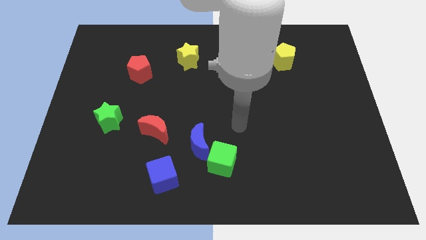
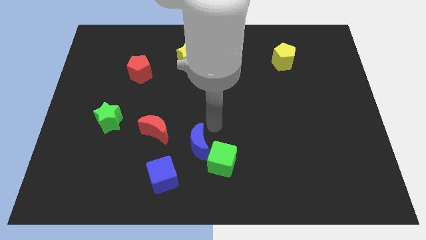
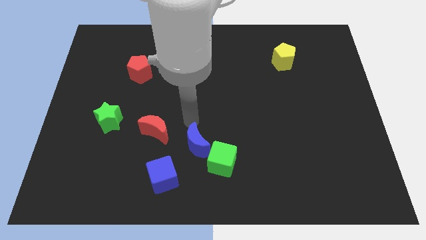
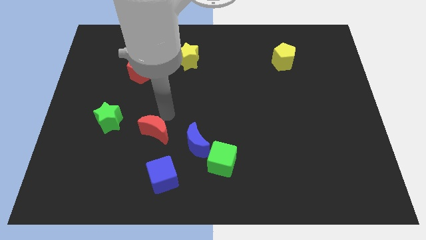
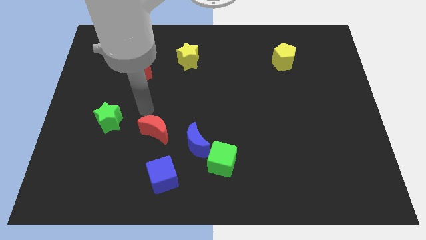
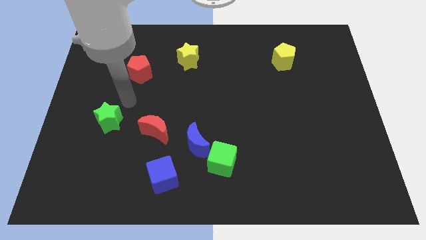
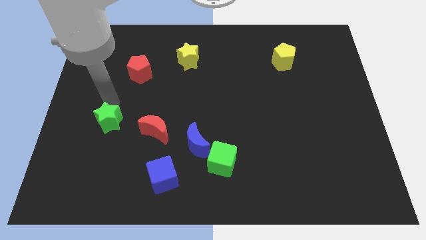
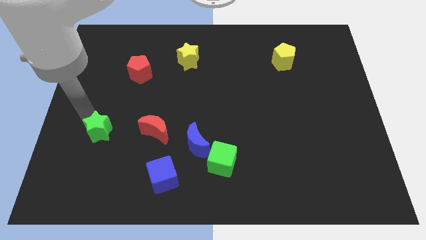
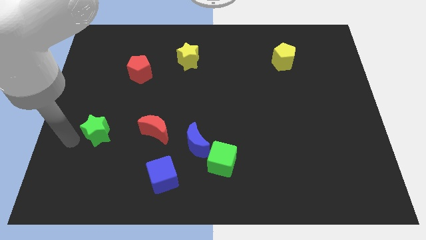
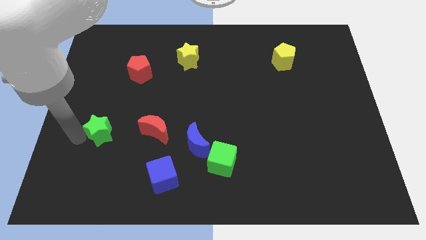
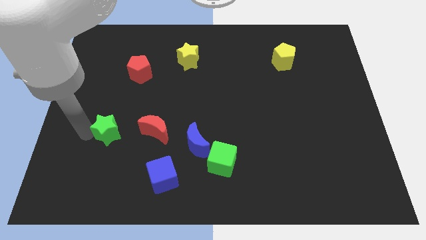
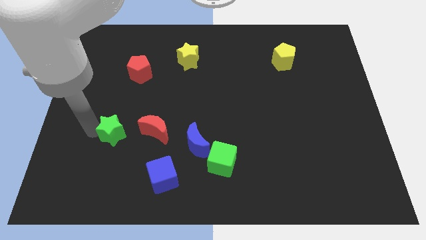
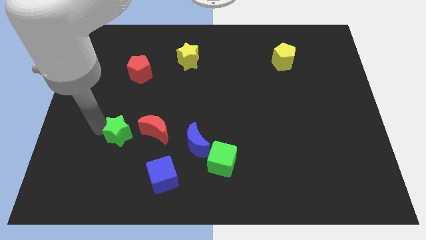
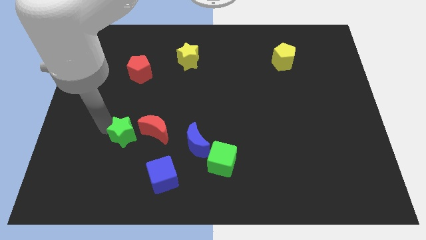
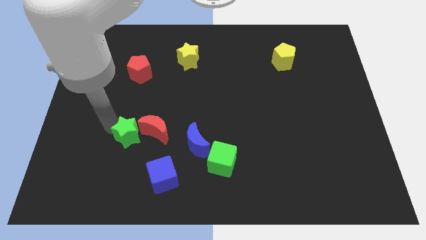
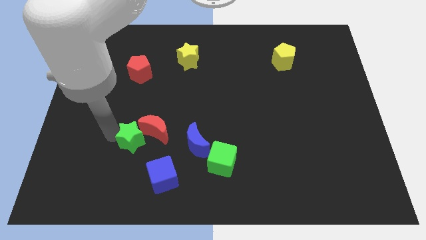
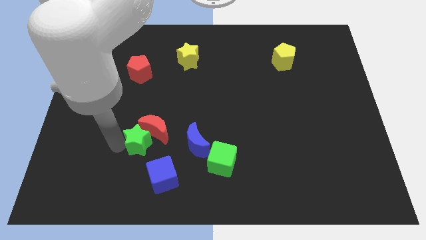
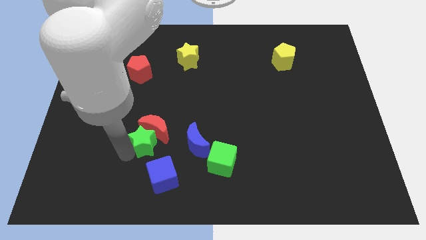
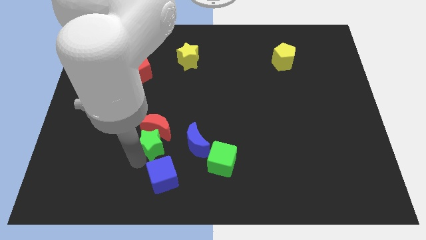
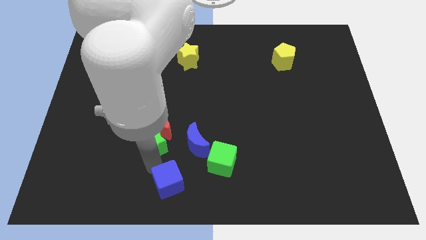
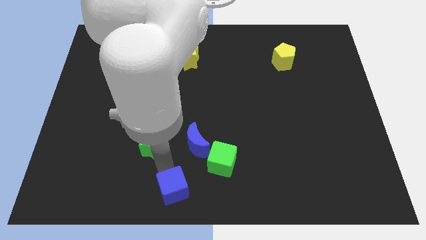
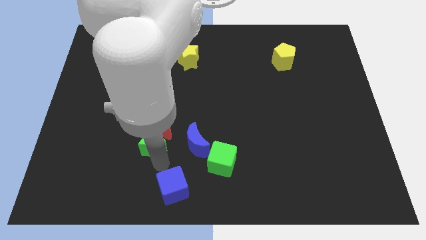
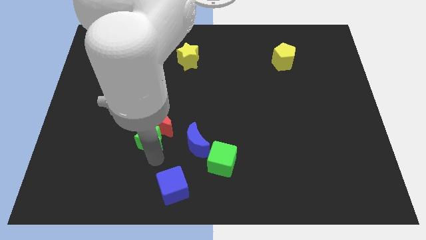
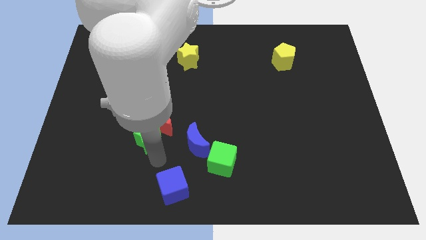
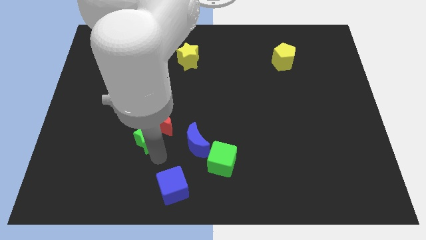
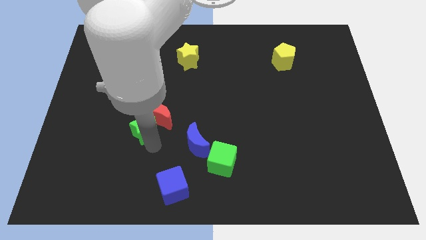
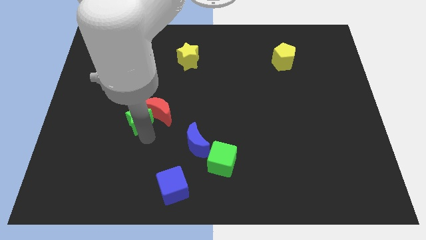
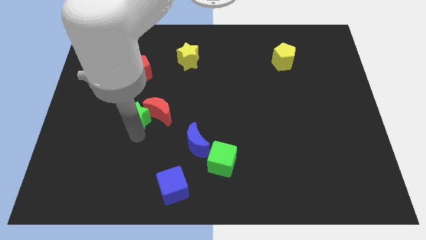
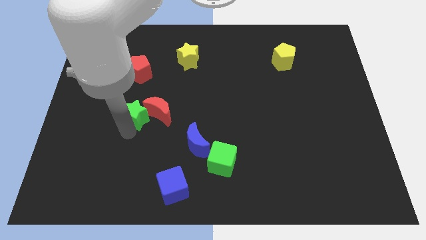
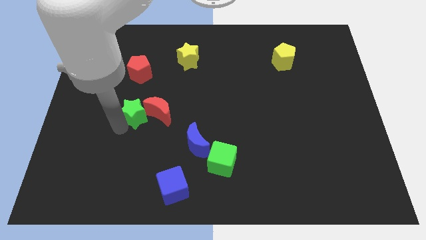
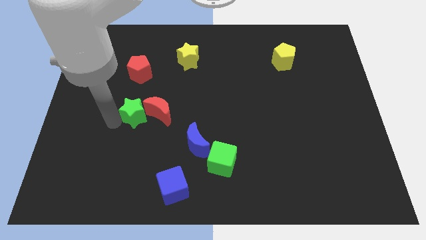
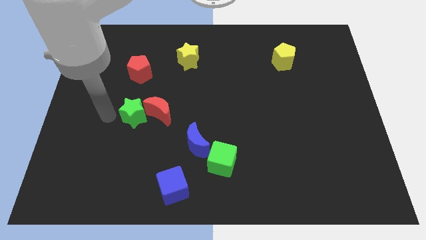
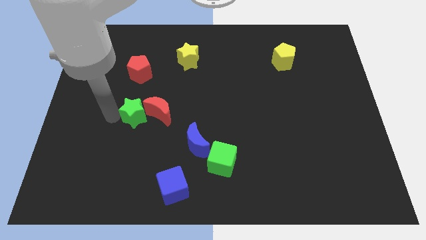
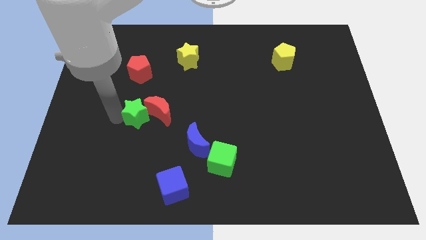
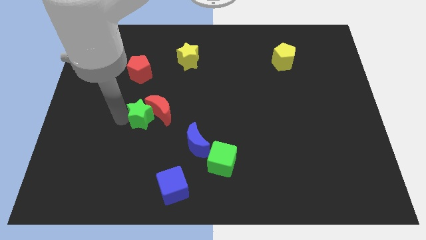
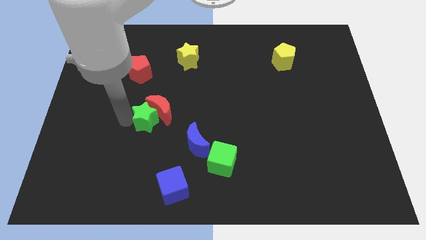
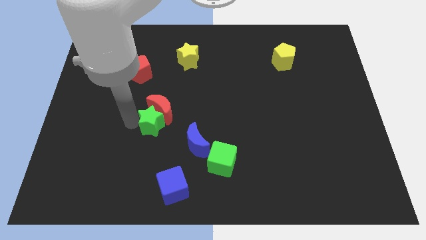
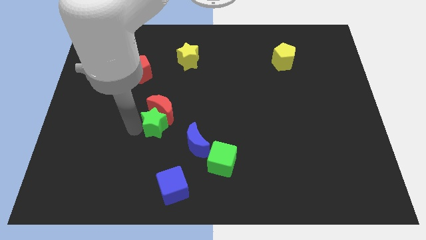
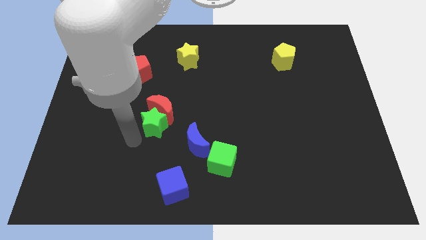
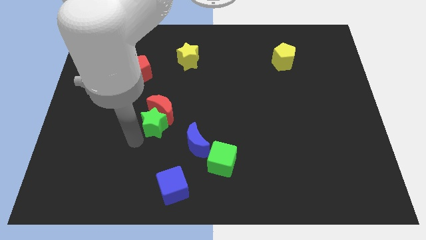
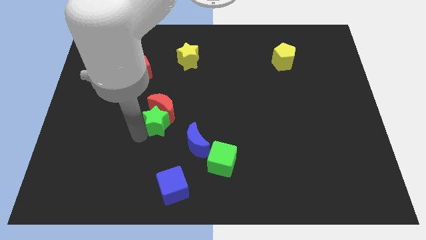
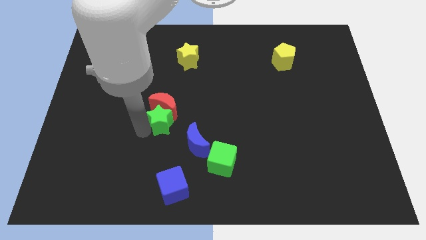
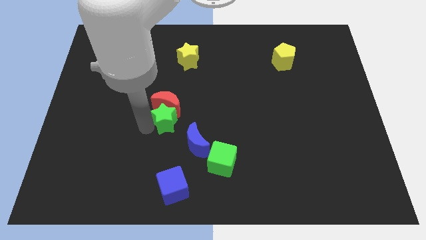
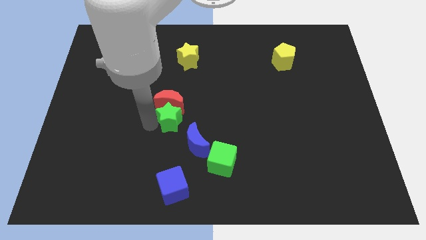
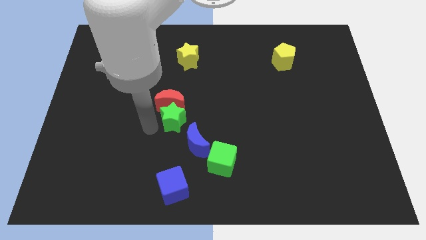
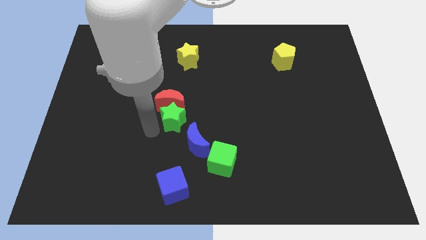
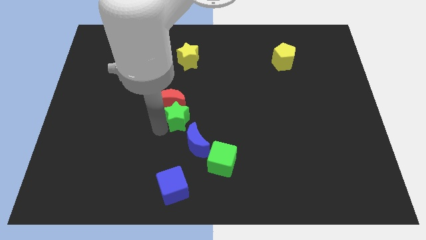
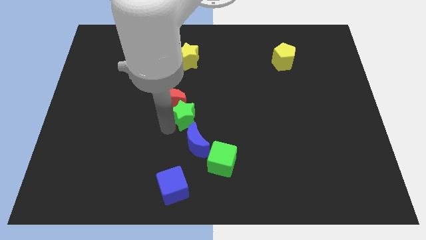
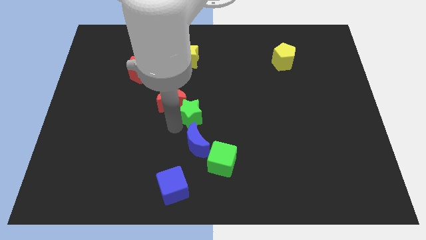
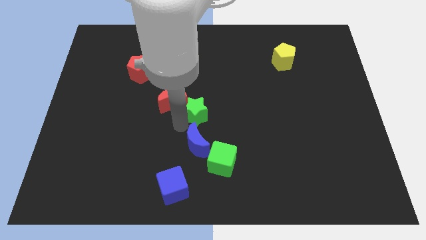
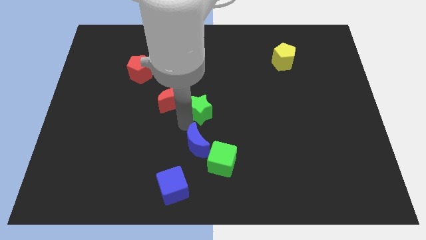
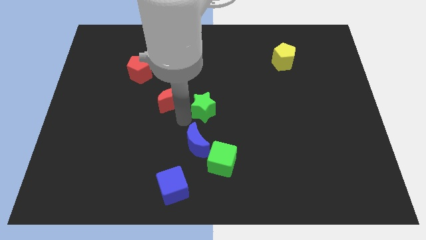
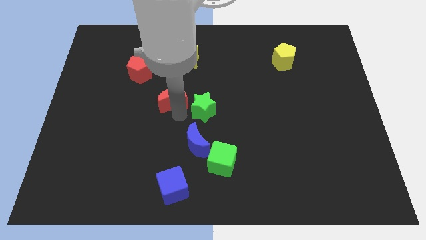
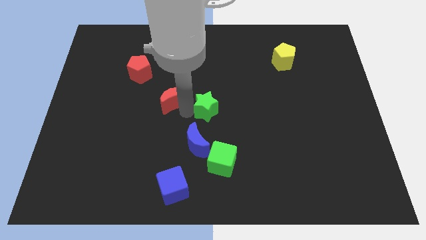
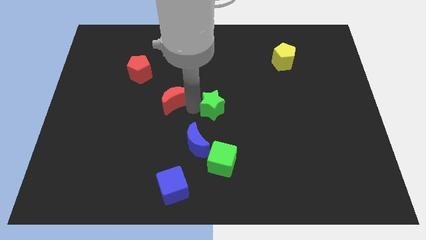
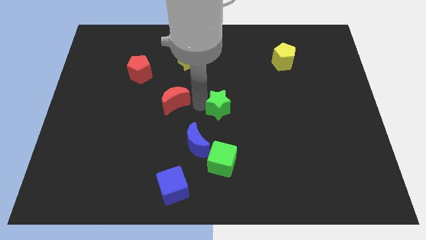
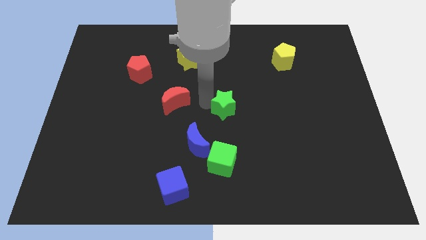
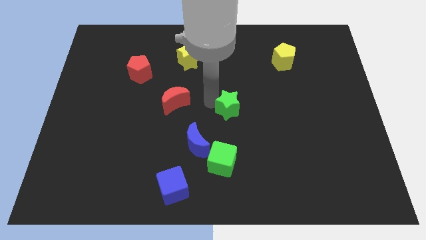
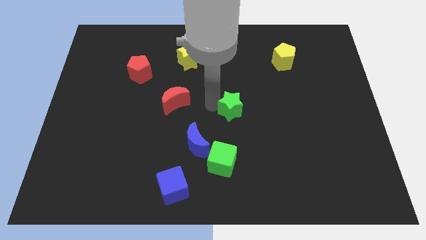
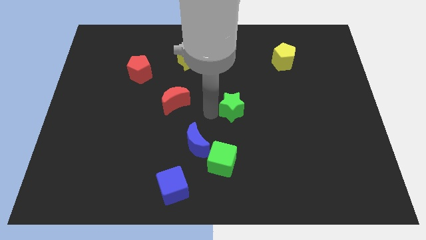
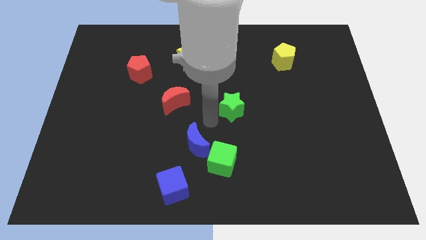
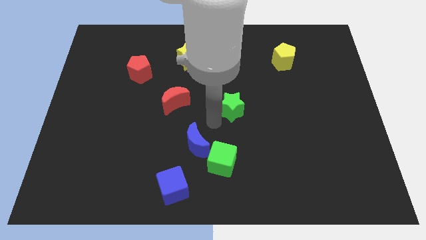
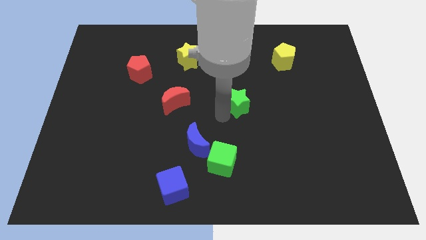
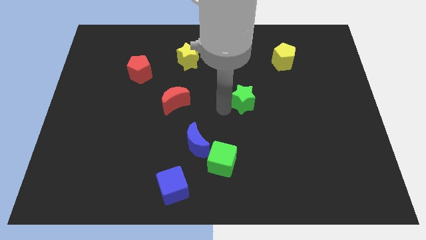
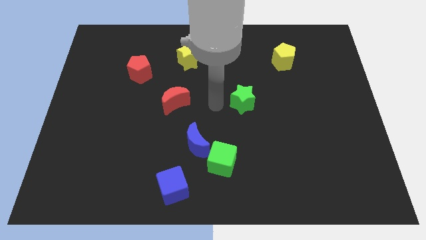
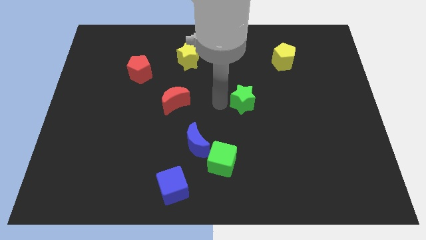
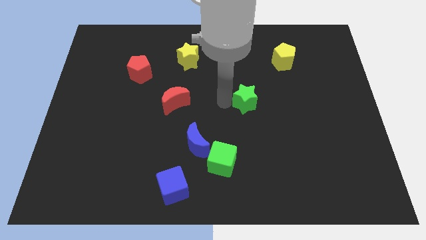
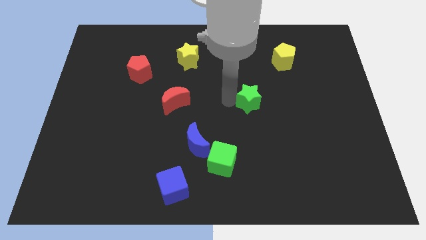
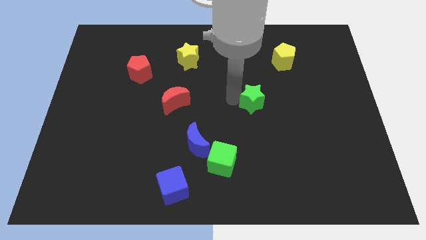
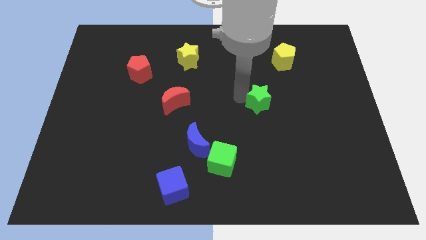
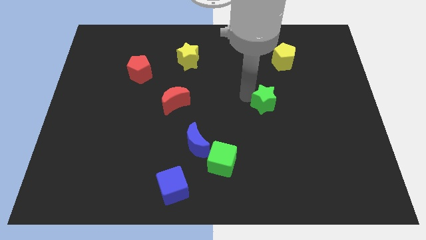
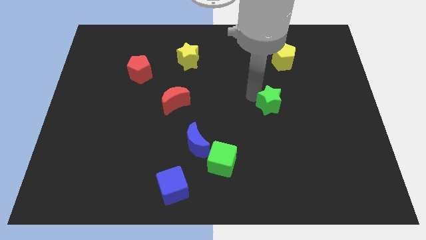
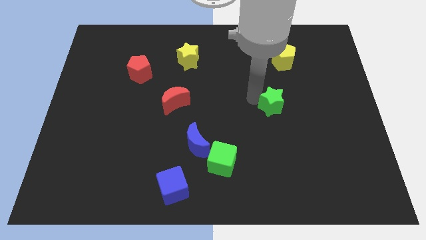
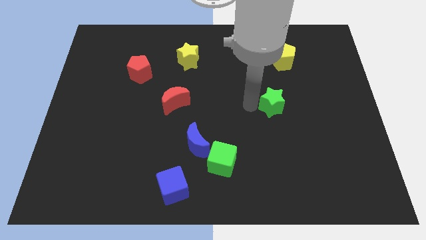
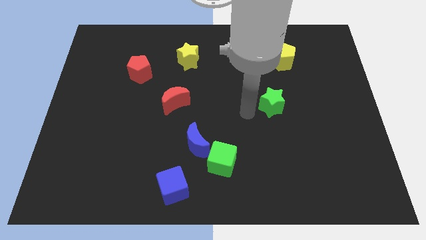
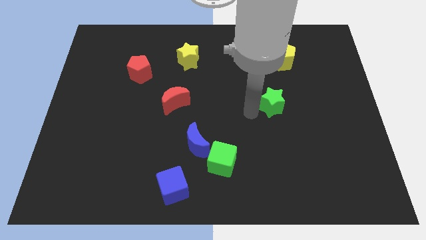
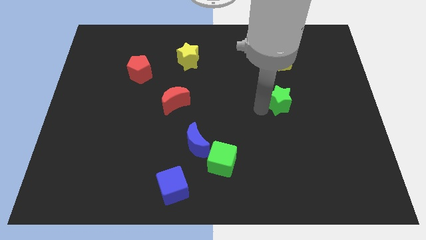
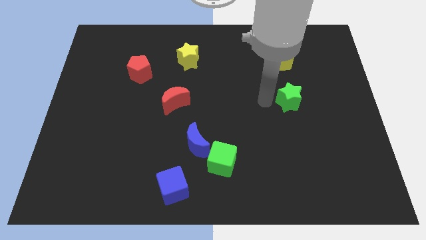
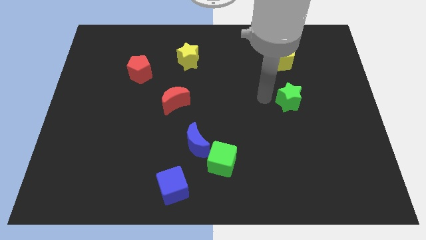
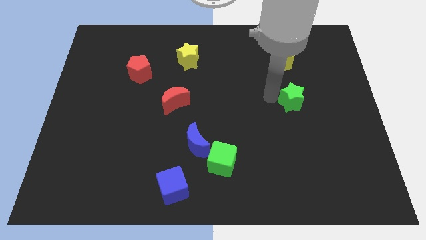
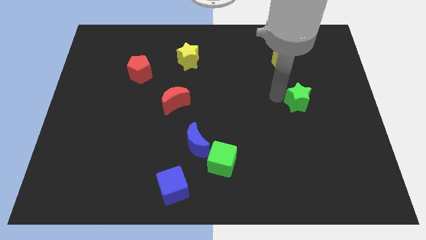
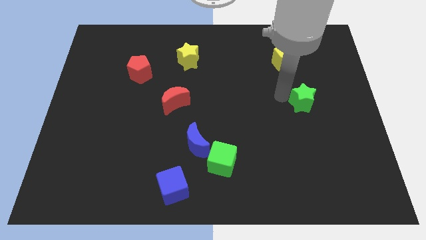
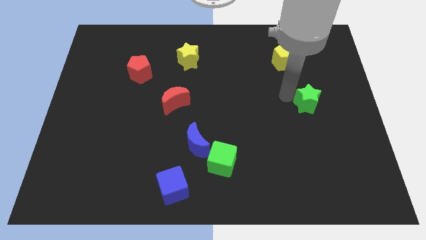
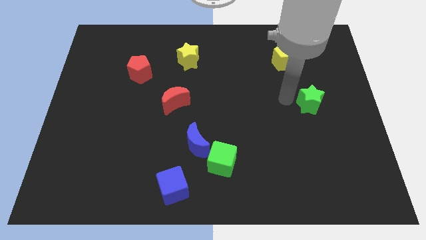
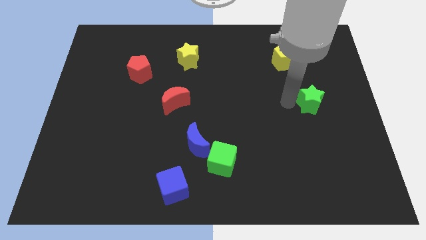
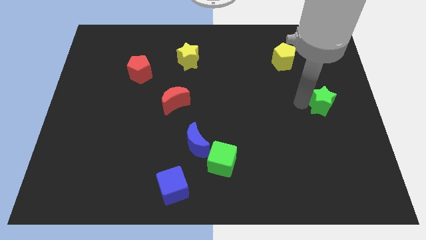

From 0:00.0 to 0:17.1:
push the green star to the right side
